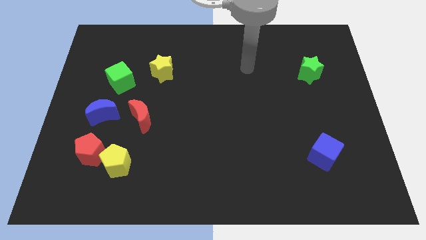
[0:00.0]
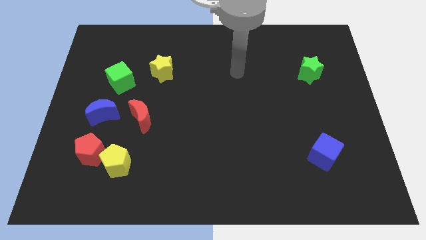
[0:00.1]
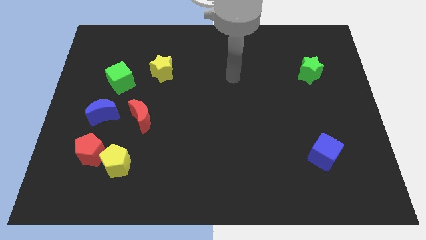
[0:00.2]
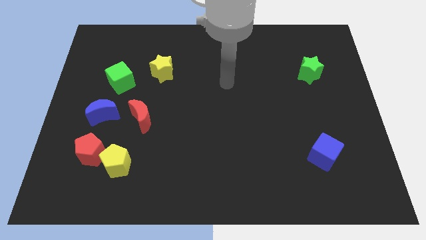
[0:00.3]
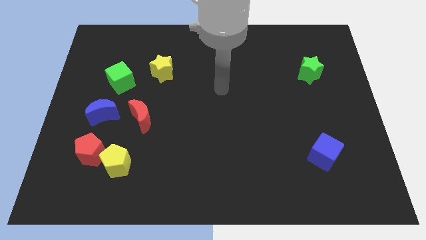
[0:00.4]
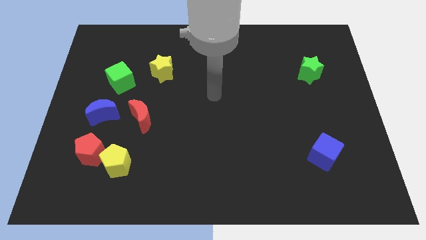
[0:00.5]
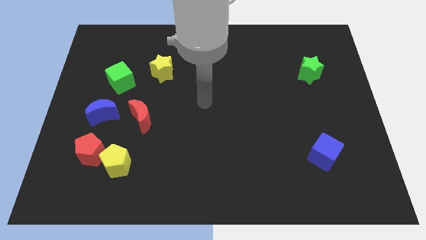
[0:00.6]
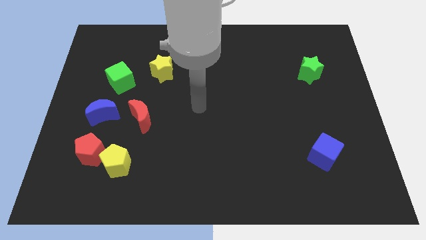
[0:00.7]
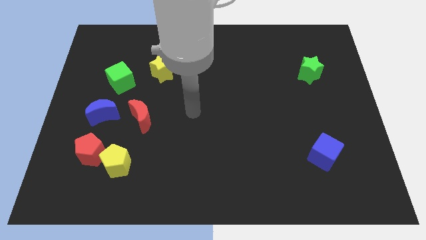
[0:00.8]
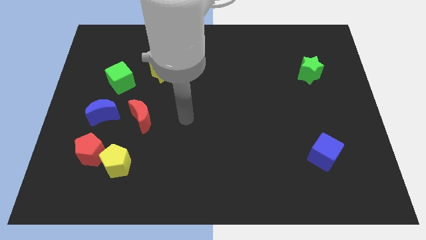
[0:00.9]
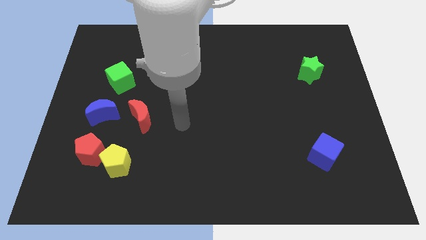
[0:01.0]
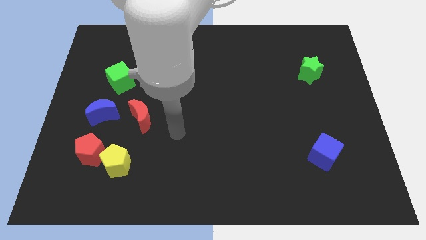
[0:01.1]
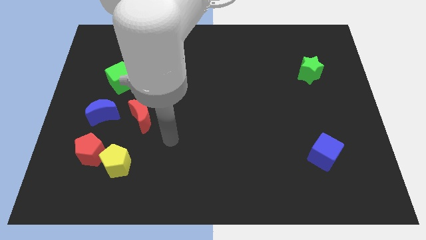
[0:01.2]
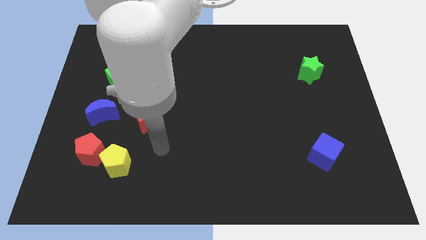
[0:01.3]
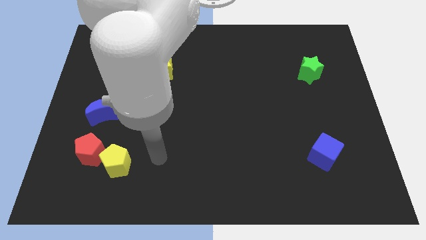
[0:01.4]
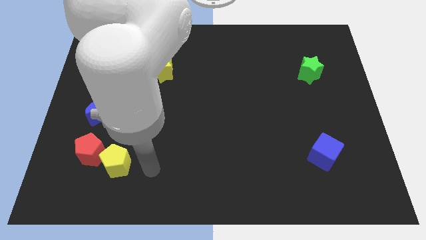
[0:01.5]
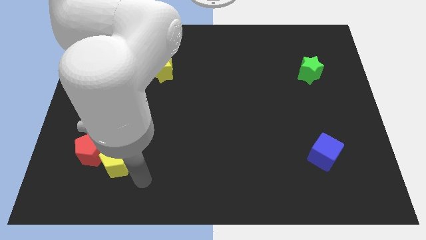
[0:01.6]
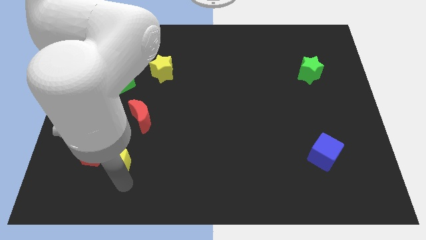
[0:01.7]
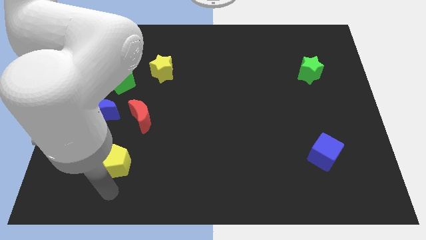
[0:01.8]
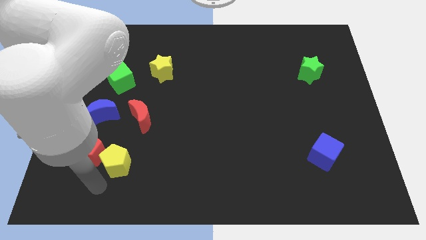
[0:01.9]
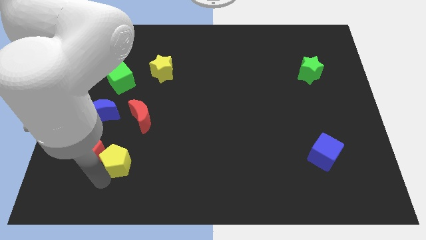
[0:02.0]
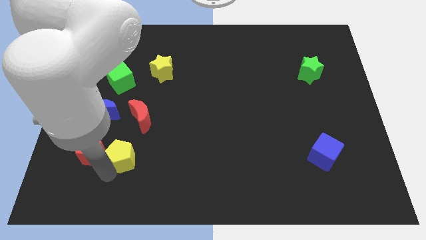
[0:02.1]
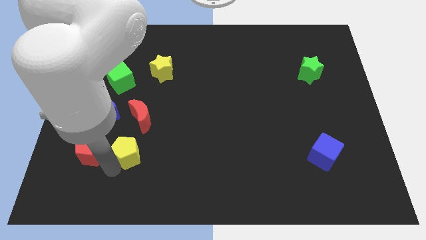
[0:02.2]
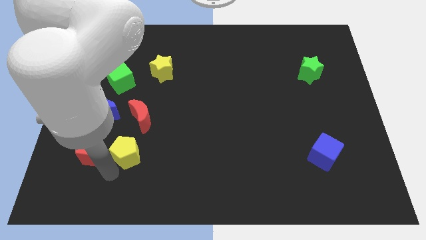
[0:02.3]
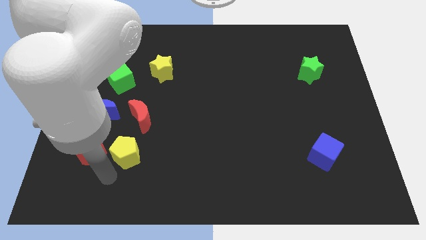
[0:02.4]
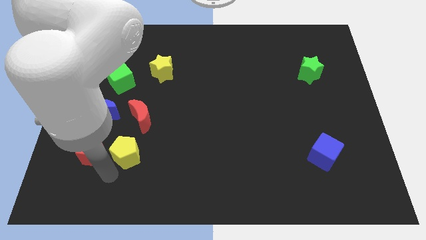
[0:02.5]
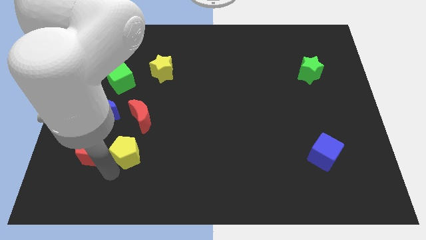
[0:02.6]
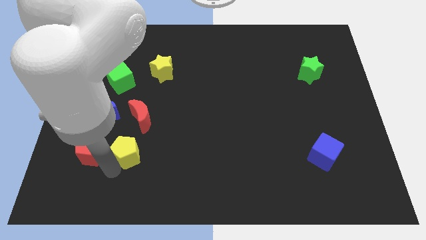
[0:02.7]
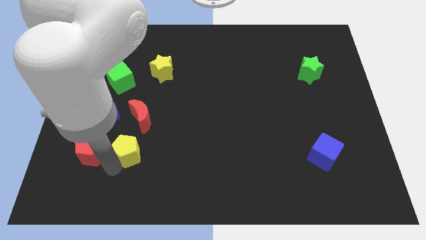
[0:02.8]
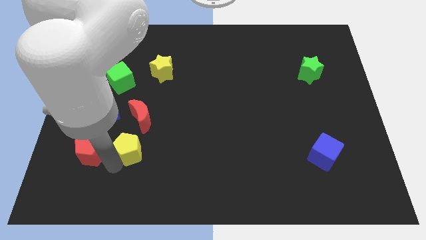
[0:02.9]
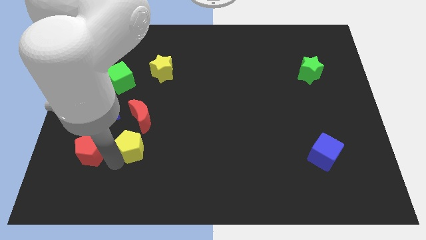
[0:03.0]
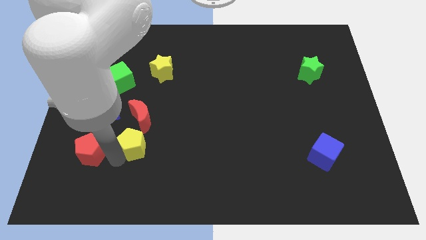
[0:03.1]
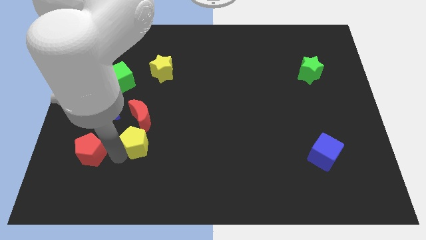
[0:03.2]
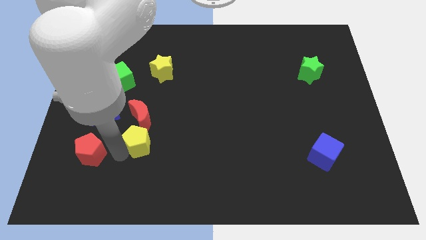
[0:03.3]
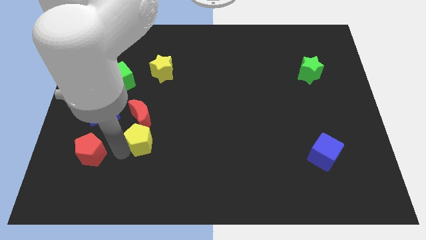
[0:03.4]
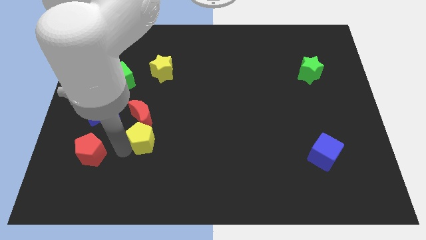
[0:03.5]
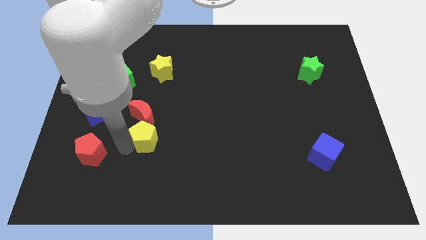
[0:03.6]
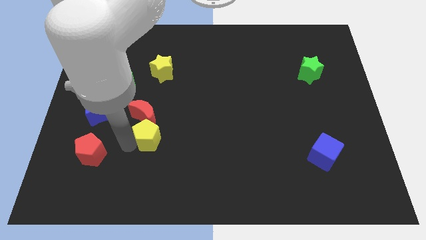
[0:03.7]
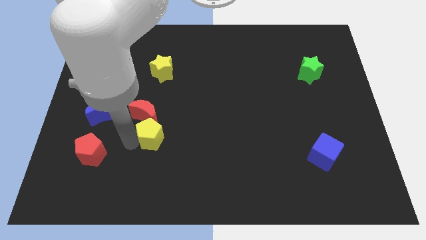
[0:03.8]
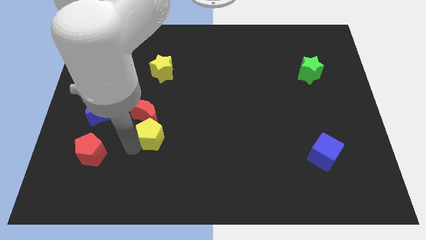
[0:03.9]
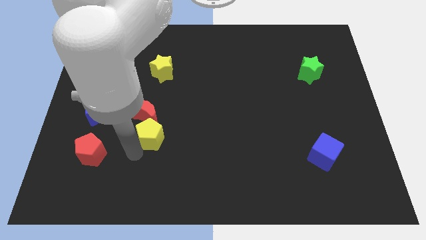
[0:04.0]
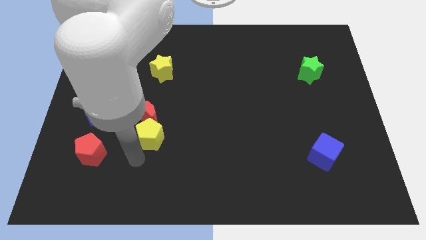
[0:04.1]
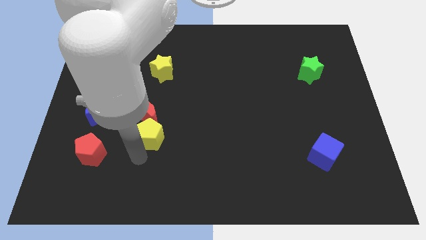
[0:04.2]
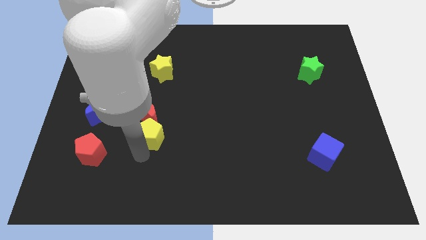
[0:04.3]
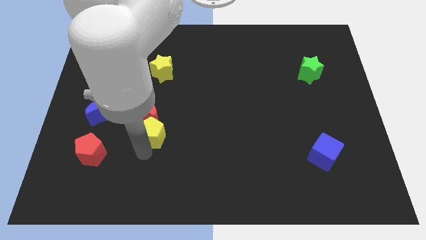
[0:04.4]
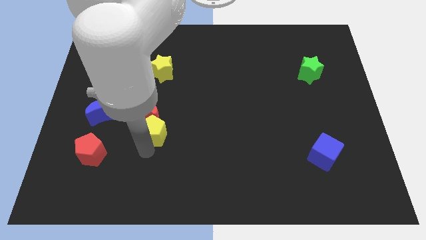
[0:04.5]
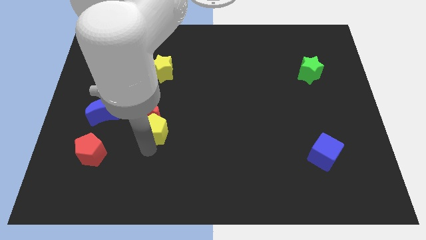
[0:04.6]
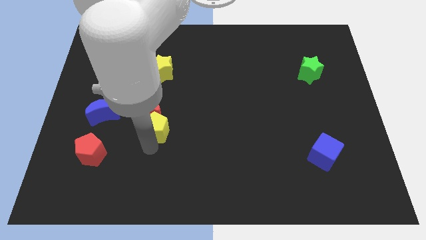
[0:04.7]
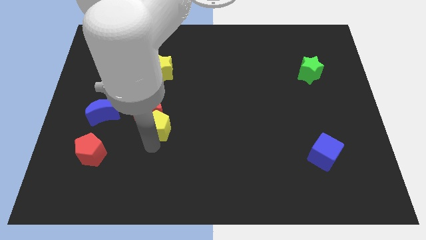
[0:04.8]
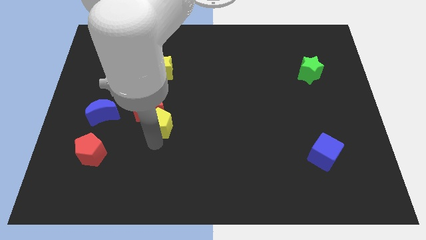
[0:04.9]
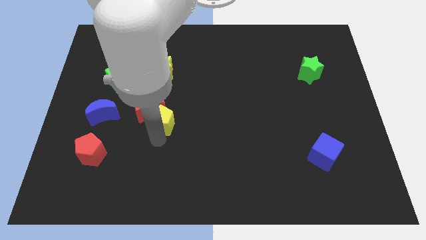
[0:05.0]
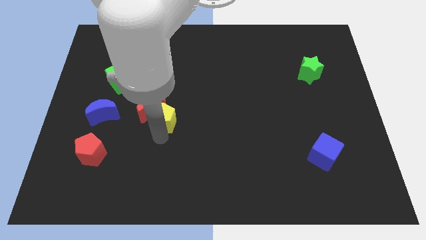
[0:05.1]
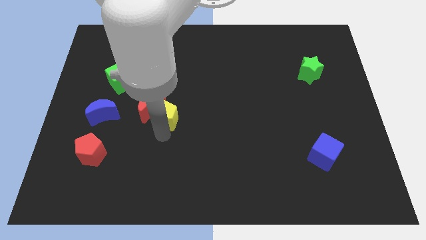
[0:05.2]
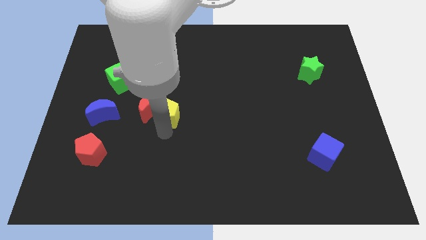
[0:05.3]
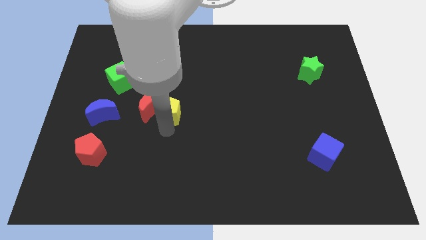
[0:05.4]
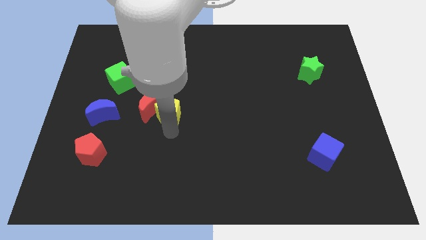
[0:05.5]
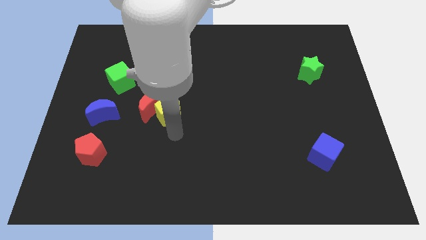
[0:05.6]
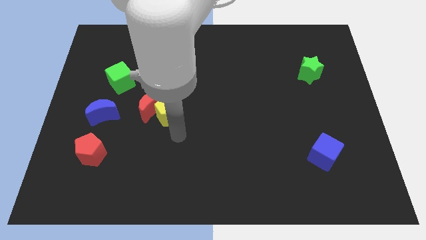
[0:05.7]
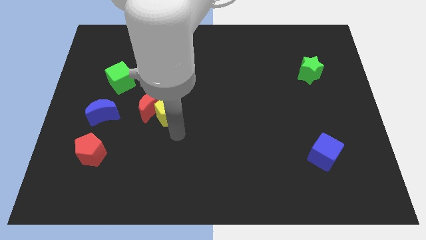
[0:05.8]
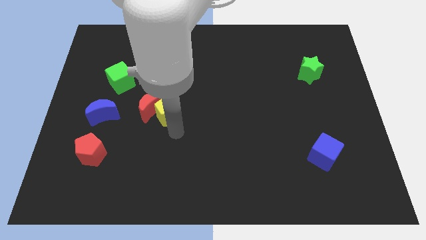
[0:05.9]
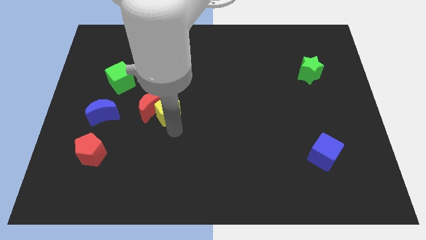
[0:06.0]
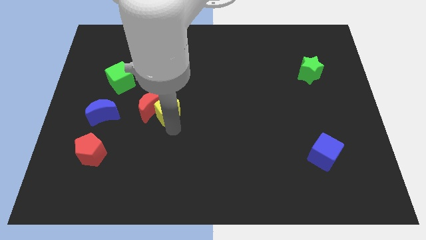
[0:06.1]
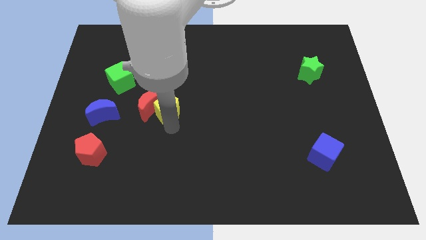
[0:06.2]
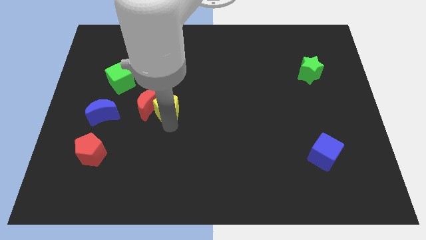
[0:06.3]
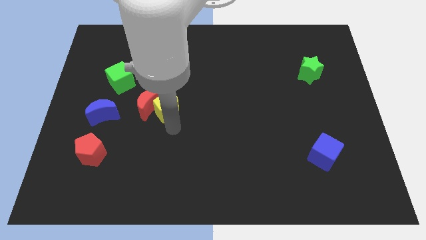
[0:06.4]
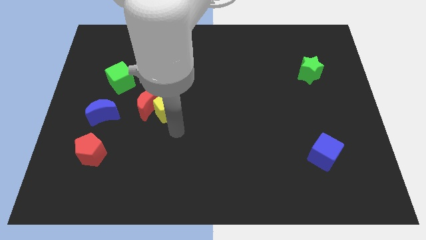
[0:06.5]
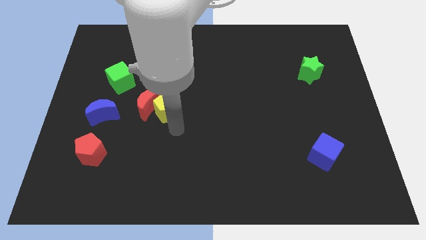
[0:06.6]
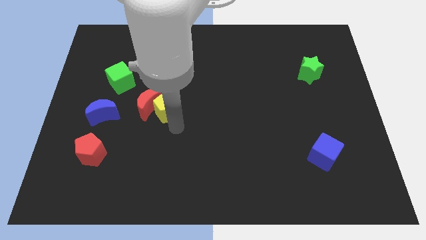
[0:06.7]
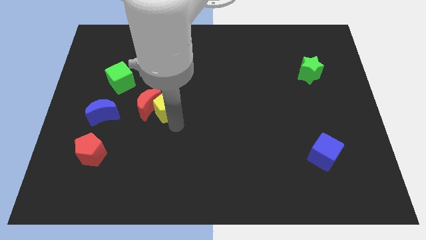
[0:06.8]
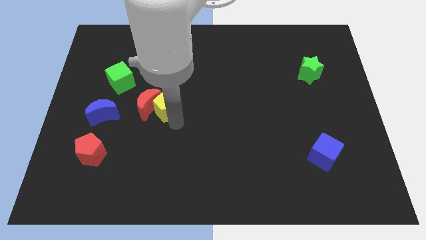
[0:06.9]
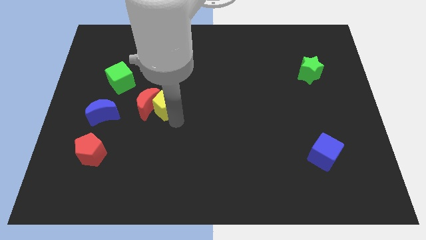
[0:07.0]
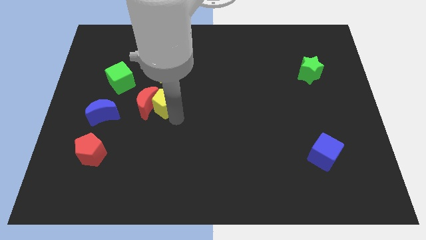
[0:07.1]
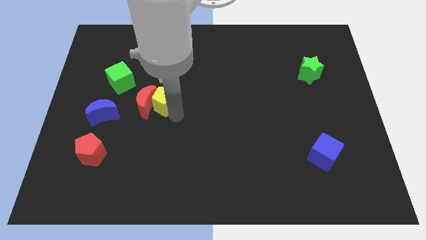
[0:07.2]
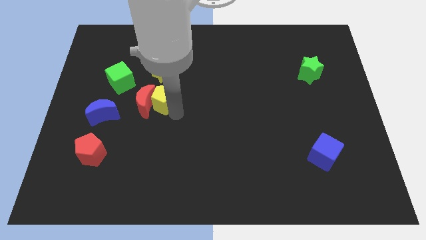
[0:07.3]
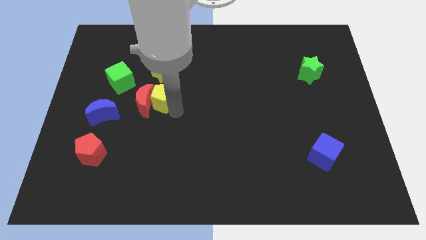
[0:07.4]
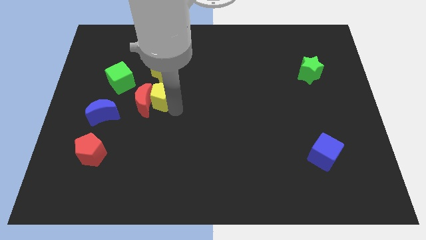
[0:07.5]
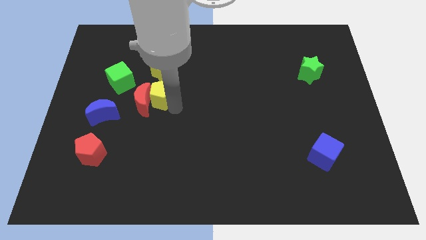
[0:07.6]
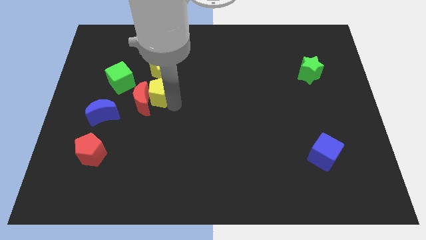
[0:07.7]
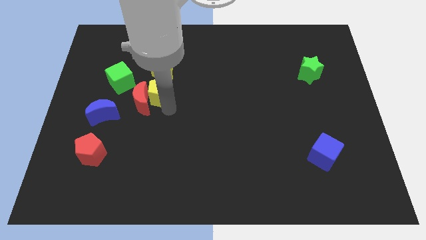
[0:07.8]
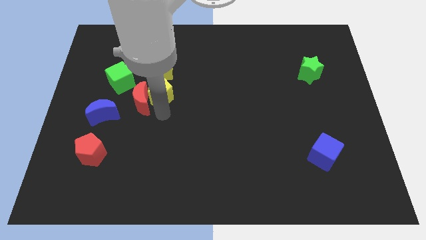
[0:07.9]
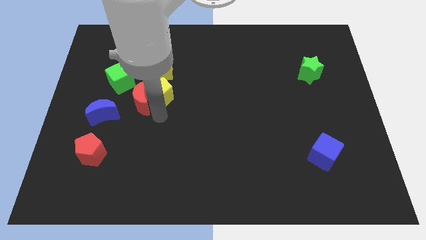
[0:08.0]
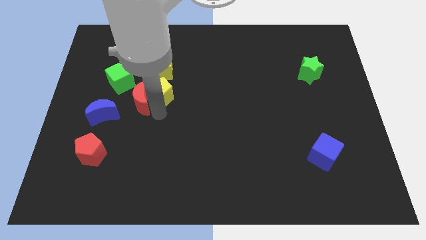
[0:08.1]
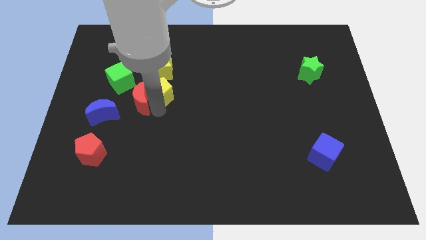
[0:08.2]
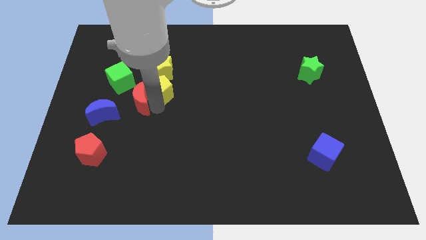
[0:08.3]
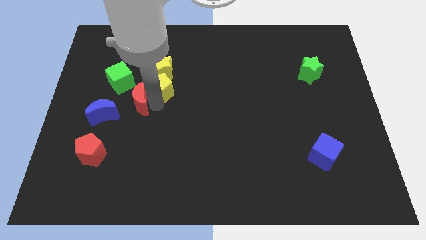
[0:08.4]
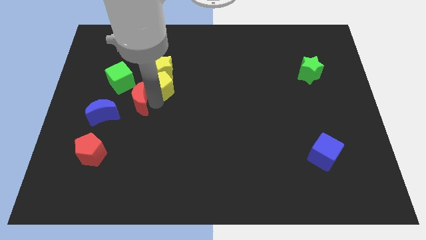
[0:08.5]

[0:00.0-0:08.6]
put the yellow pentagon close to the yellow star
